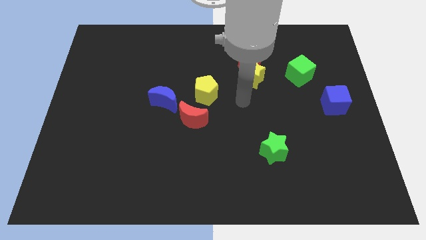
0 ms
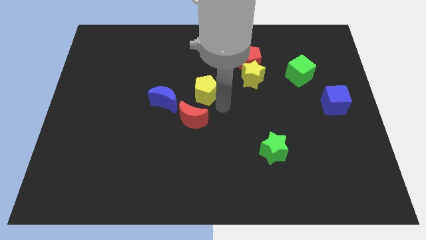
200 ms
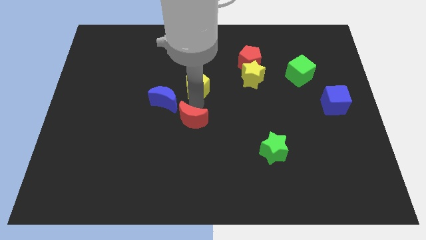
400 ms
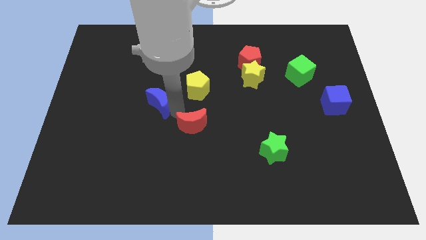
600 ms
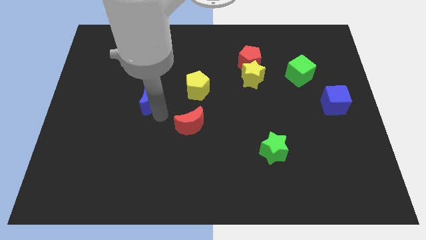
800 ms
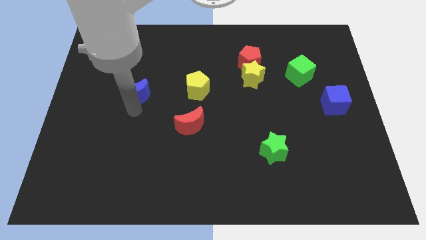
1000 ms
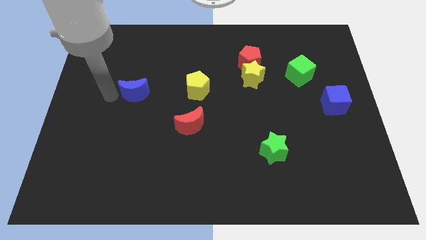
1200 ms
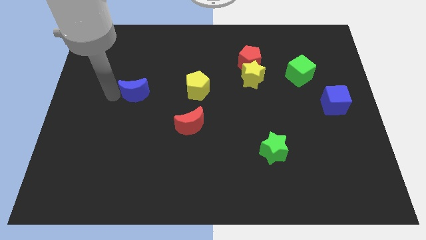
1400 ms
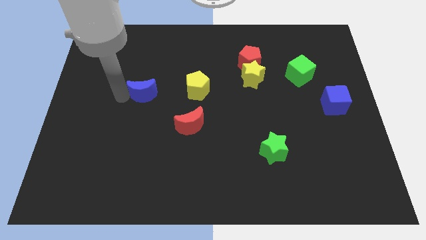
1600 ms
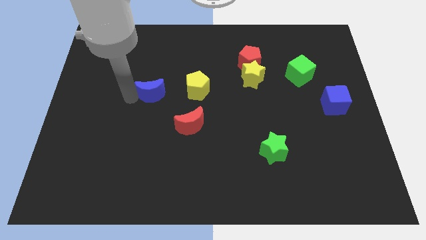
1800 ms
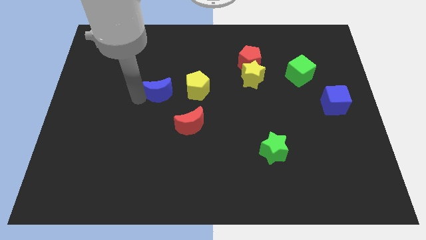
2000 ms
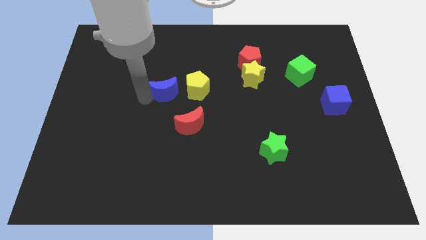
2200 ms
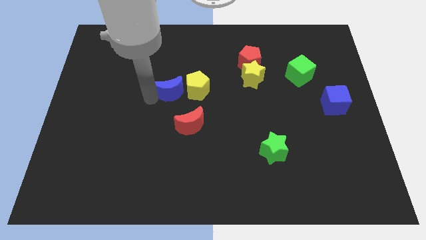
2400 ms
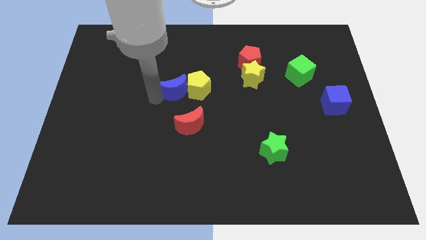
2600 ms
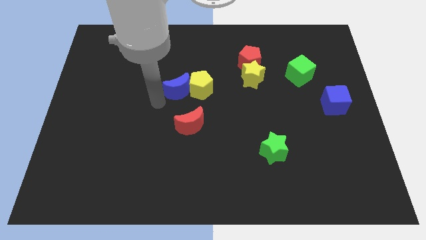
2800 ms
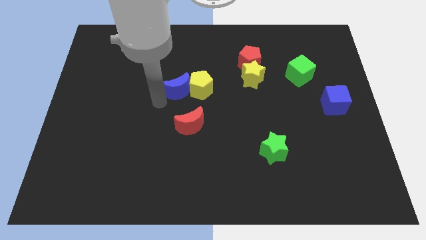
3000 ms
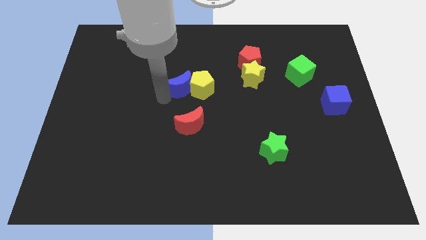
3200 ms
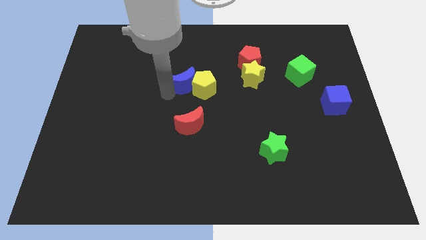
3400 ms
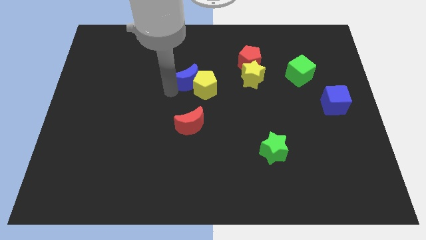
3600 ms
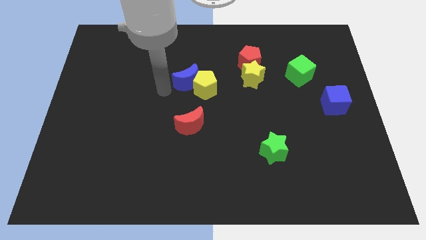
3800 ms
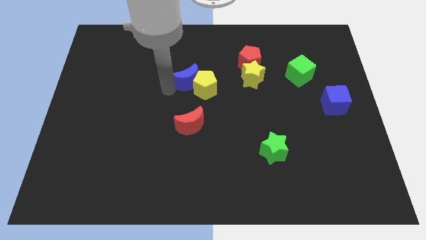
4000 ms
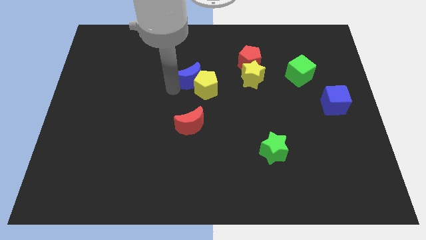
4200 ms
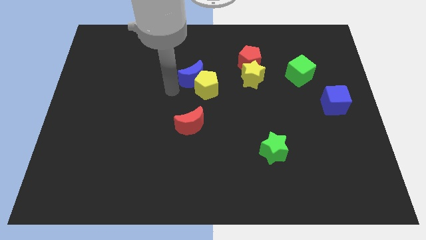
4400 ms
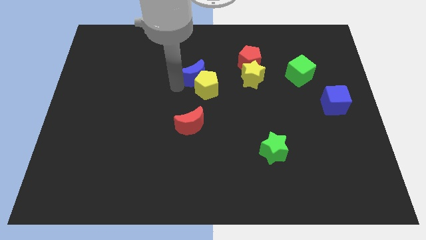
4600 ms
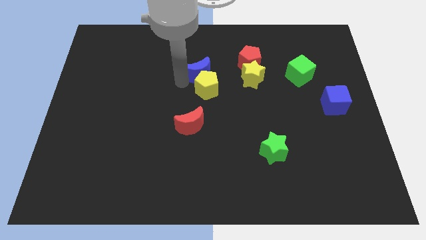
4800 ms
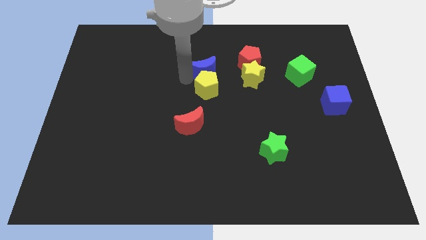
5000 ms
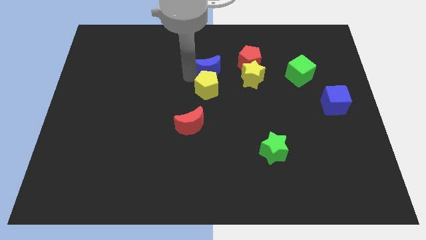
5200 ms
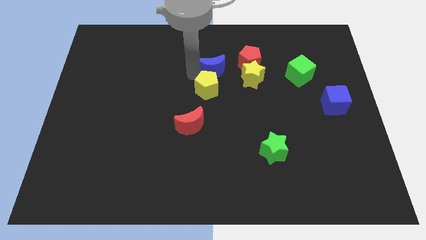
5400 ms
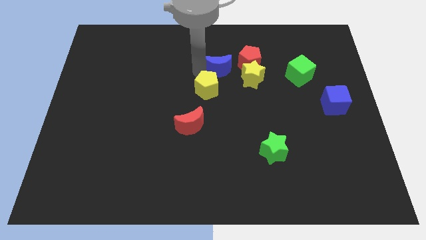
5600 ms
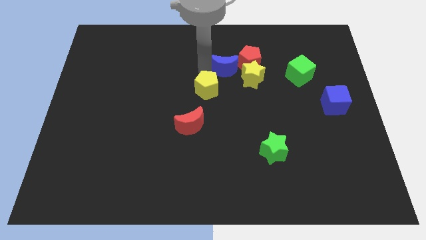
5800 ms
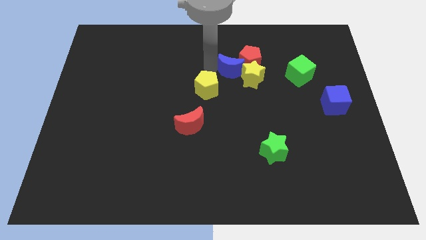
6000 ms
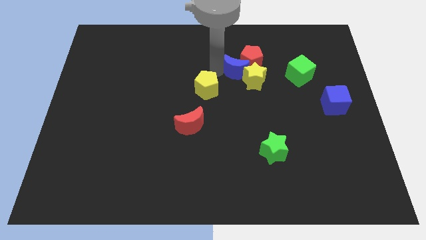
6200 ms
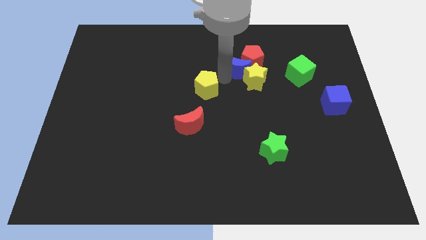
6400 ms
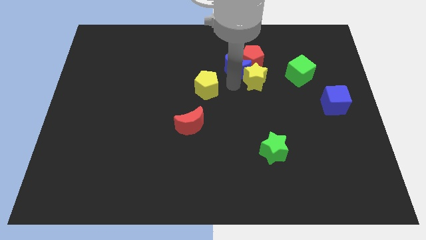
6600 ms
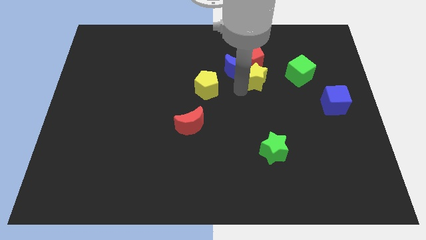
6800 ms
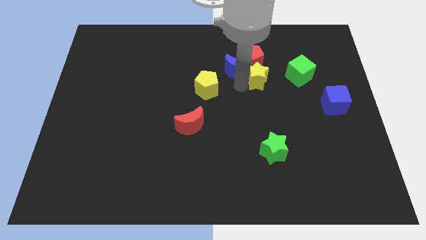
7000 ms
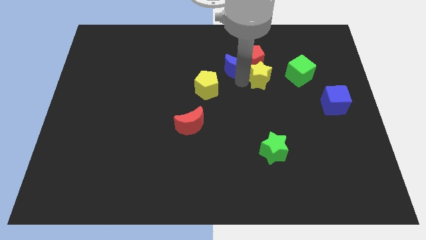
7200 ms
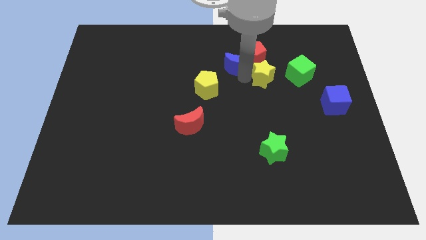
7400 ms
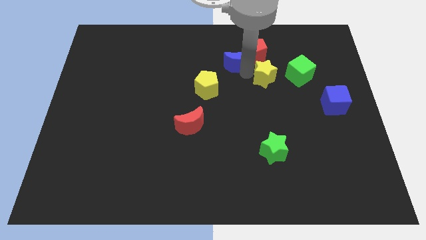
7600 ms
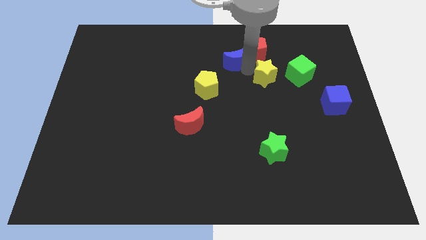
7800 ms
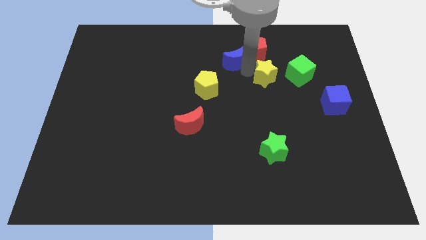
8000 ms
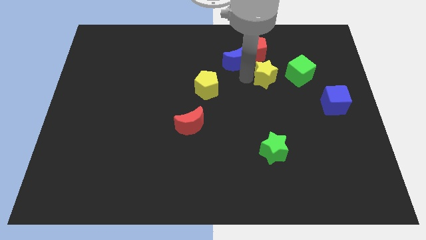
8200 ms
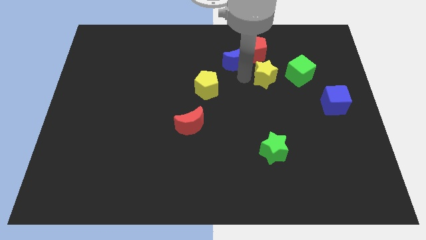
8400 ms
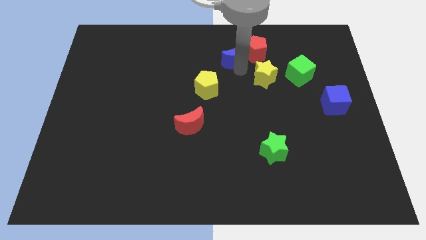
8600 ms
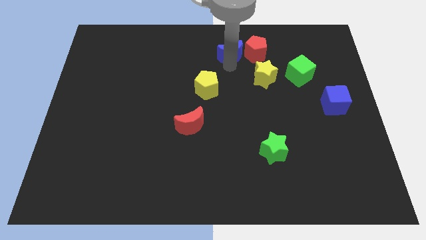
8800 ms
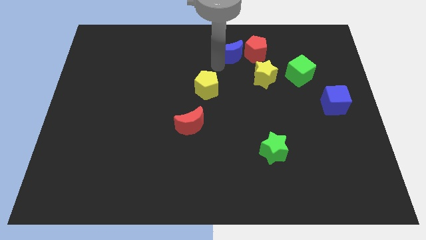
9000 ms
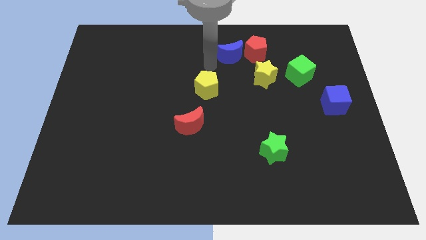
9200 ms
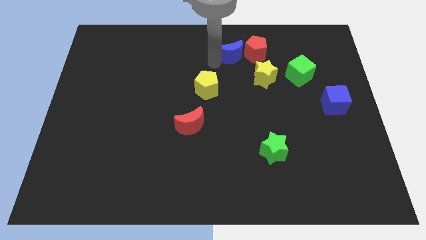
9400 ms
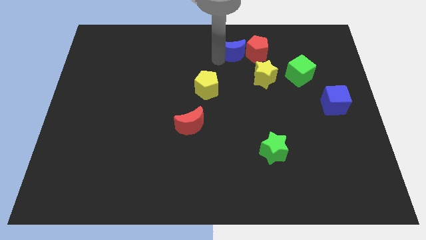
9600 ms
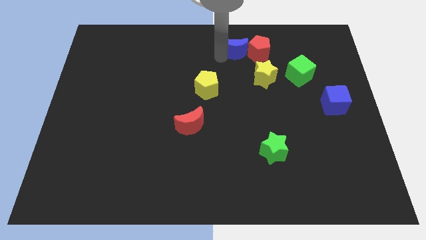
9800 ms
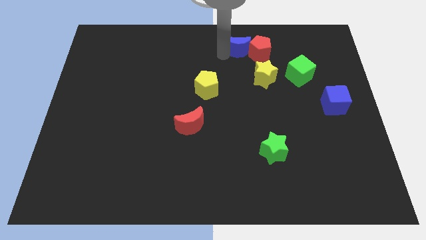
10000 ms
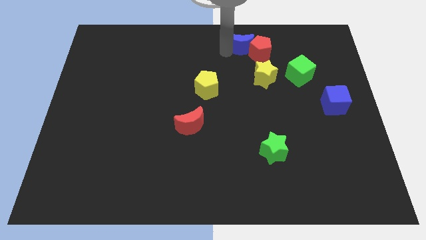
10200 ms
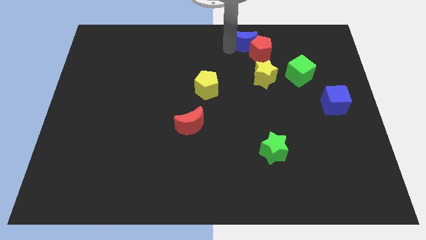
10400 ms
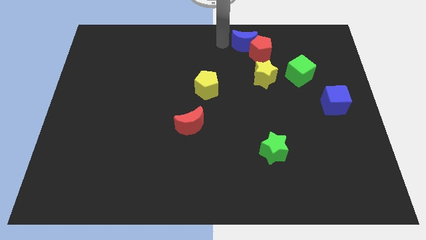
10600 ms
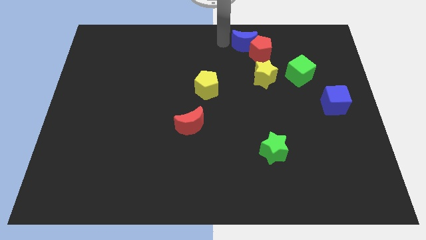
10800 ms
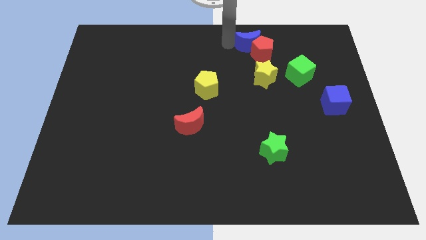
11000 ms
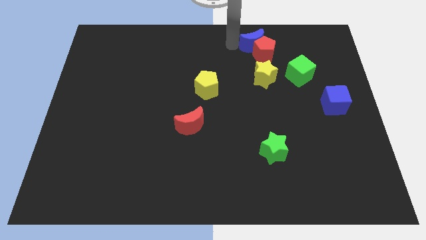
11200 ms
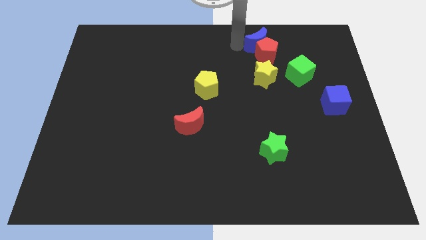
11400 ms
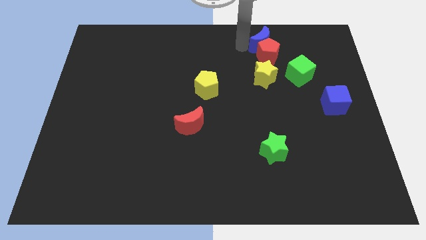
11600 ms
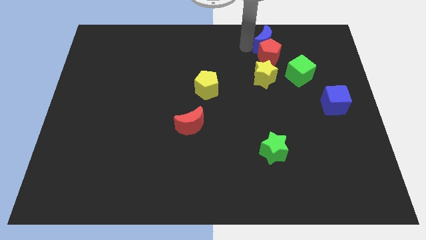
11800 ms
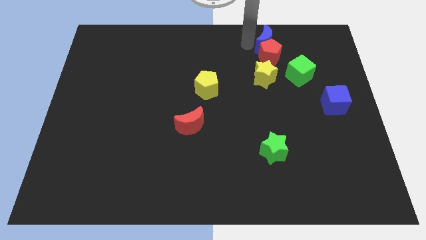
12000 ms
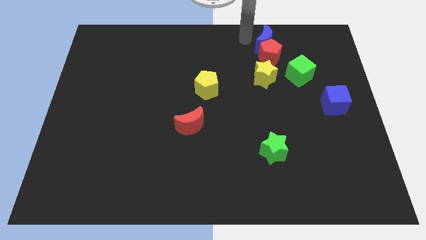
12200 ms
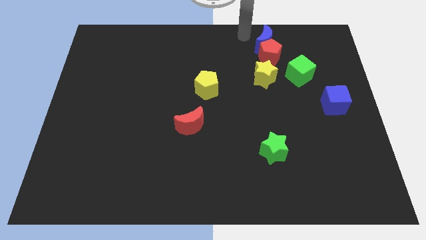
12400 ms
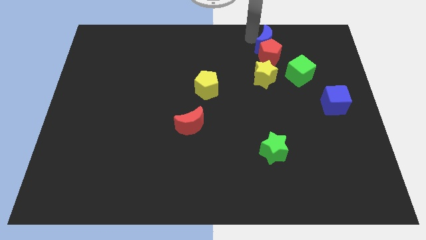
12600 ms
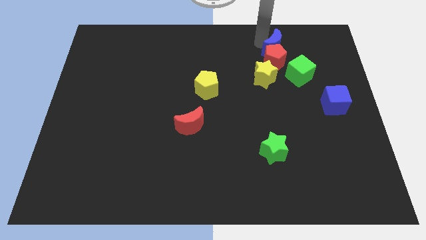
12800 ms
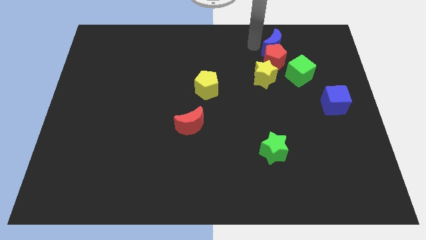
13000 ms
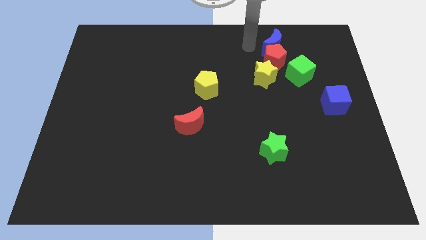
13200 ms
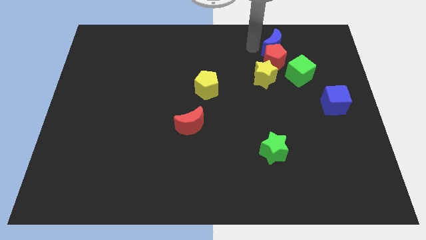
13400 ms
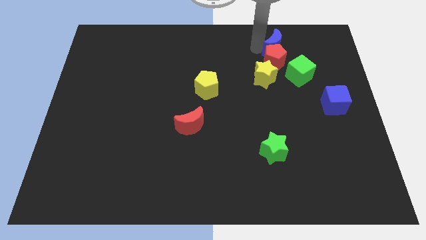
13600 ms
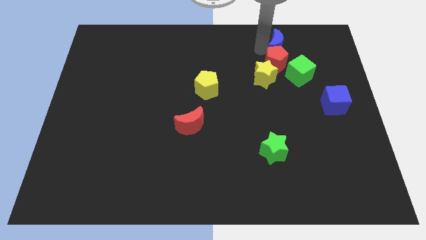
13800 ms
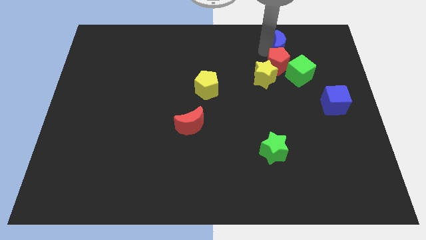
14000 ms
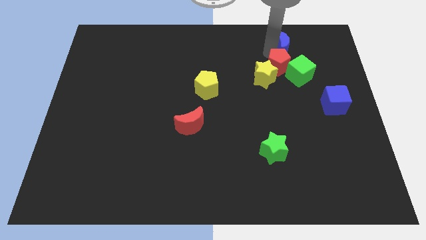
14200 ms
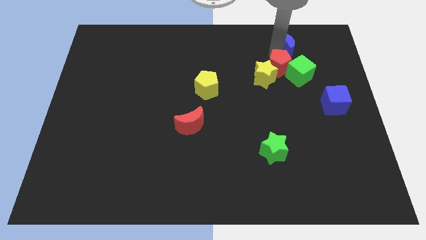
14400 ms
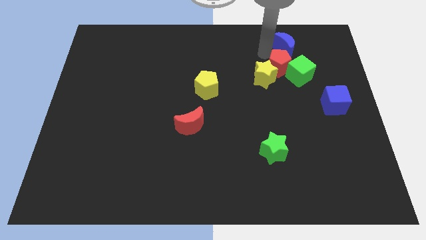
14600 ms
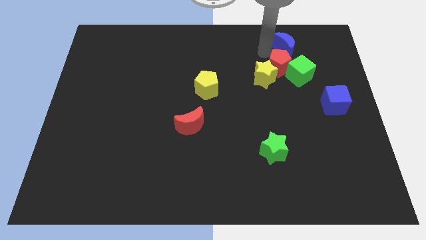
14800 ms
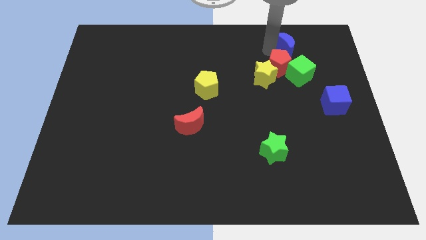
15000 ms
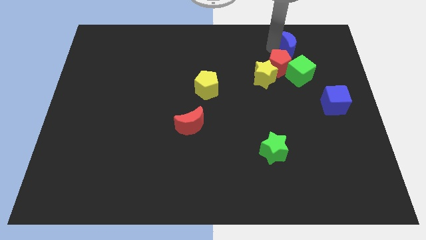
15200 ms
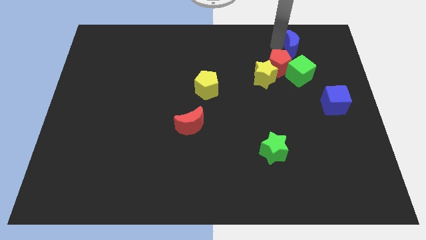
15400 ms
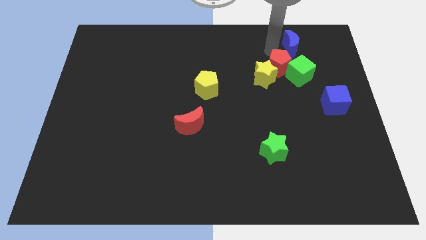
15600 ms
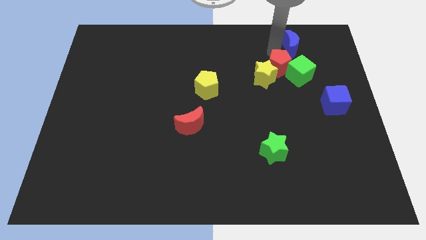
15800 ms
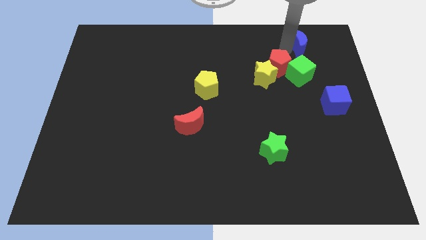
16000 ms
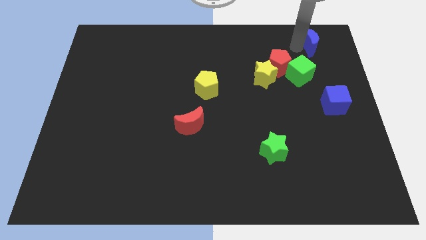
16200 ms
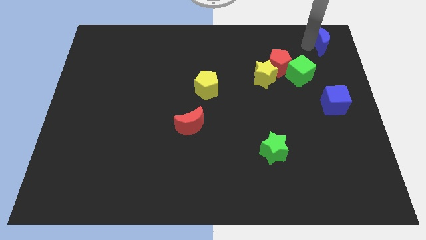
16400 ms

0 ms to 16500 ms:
put the blue moon to the top right
